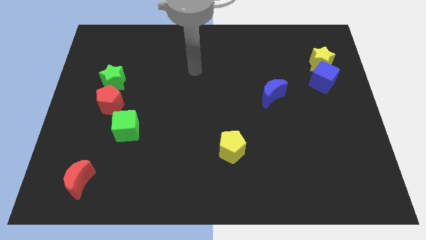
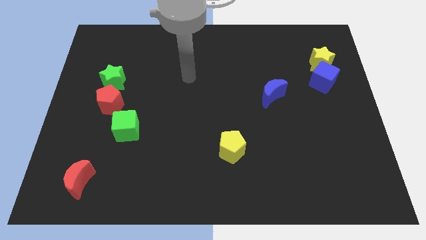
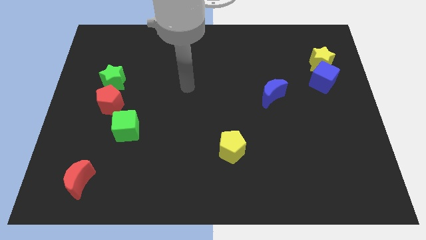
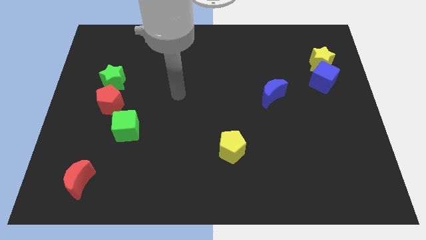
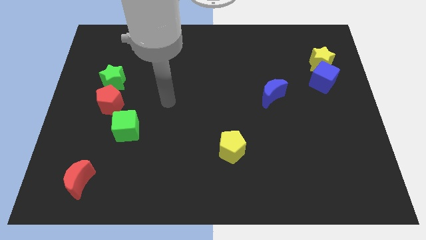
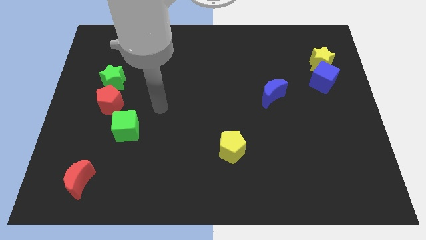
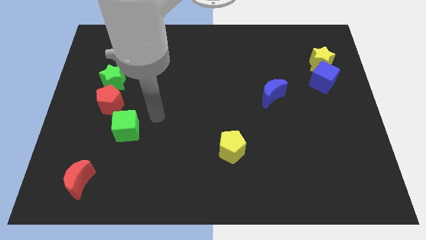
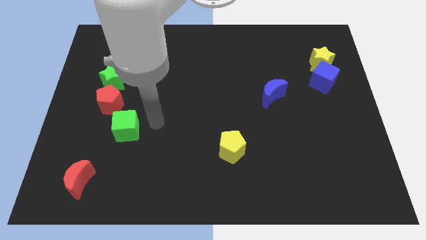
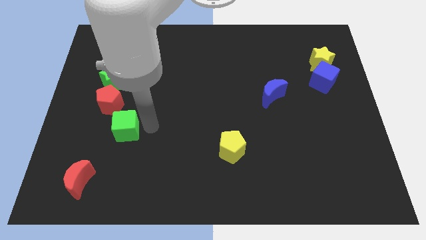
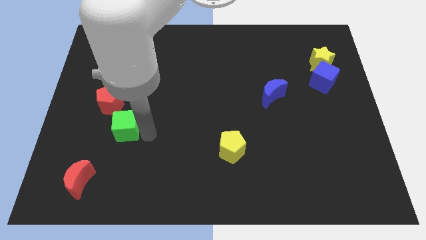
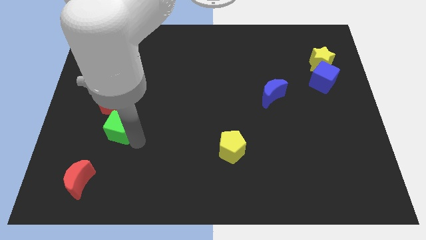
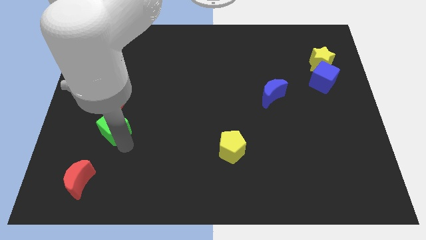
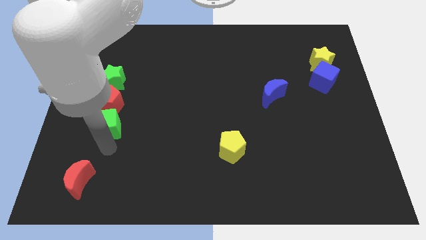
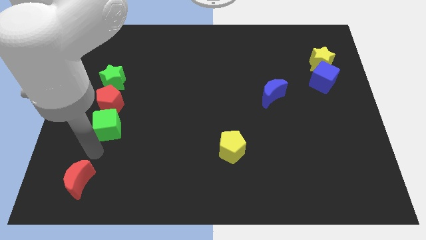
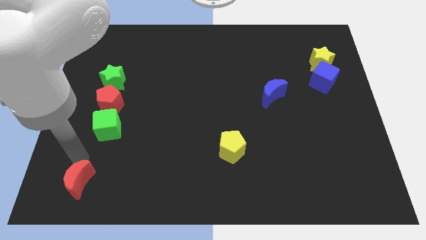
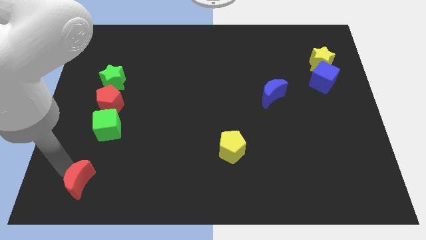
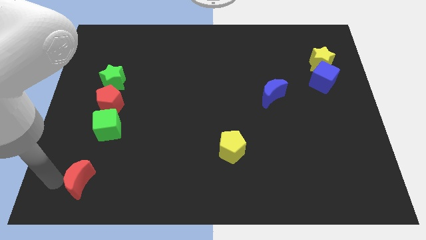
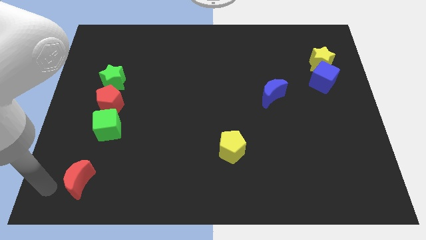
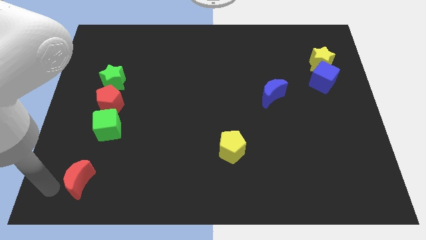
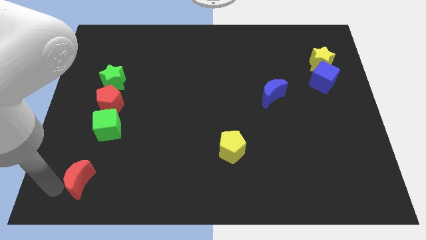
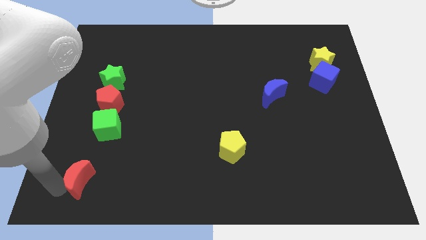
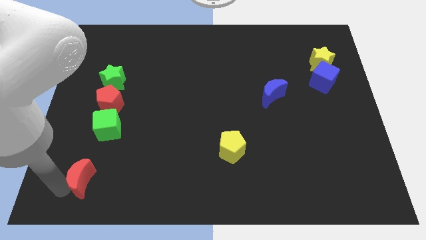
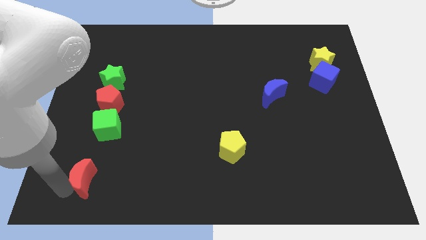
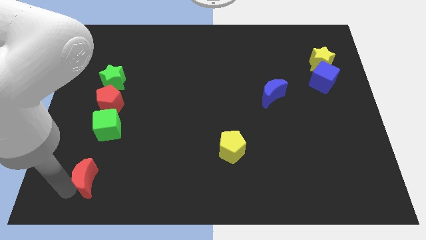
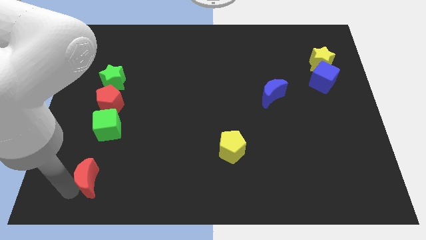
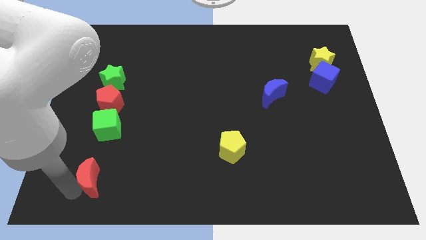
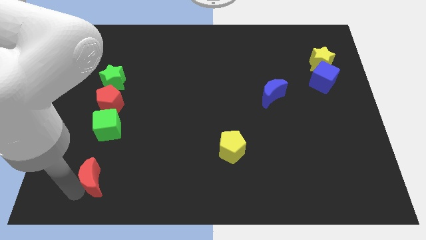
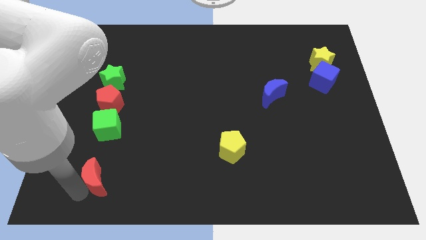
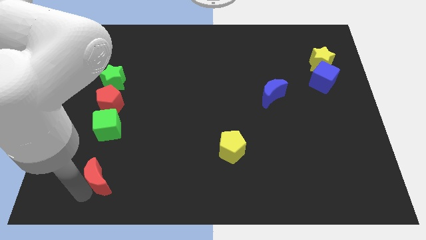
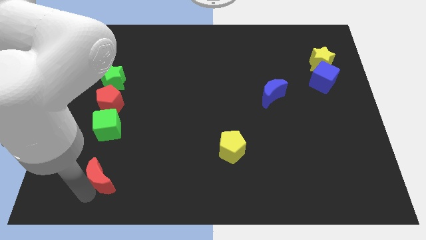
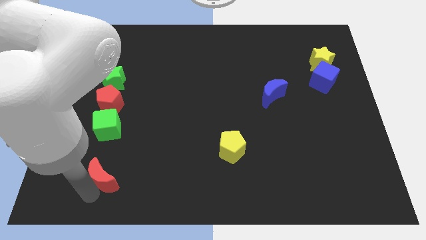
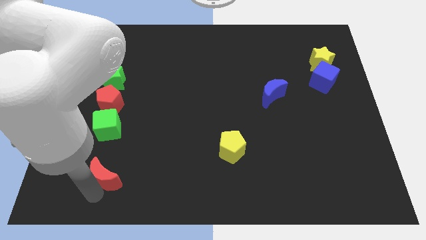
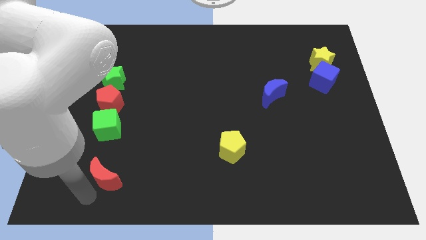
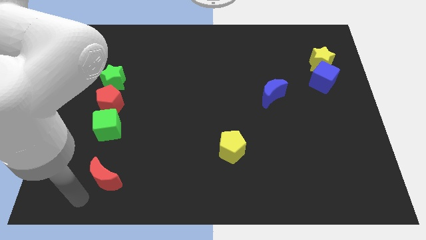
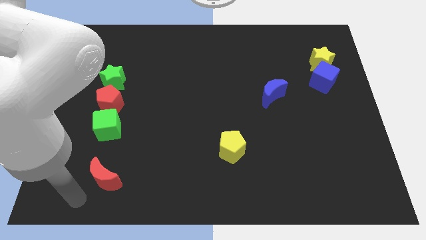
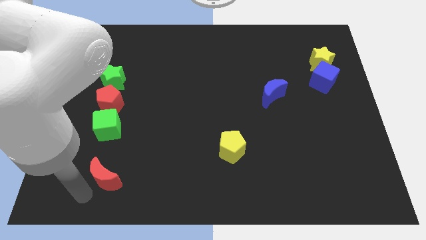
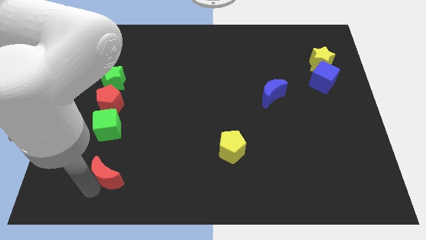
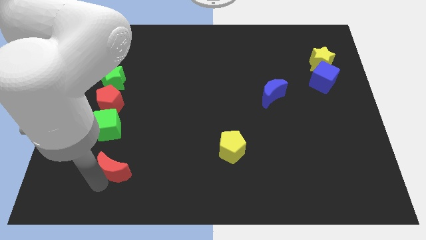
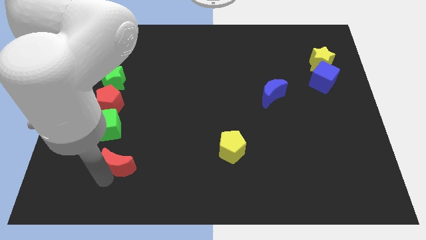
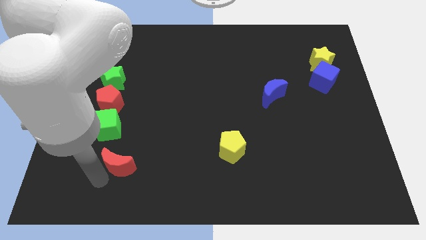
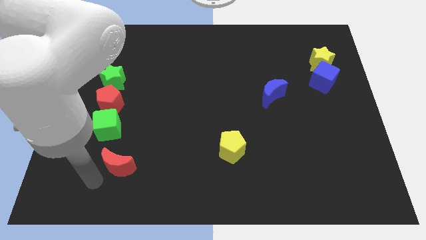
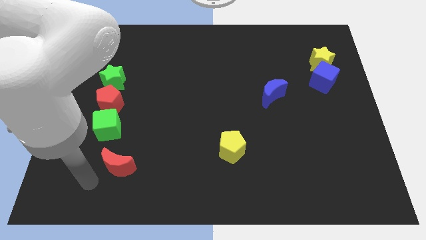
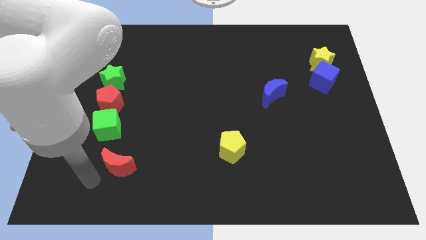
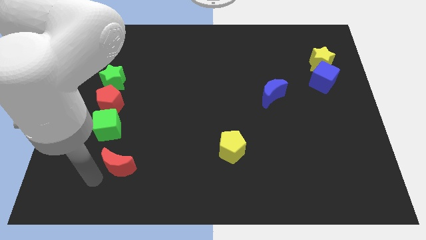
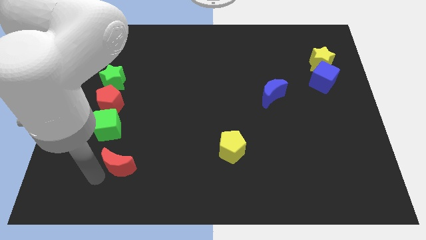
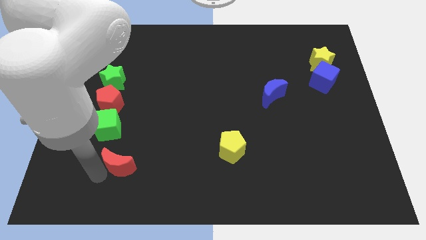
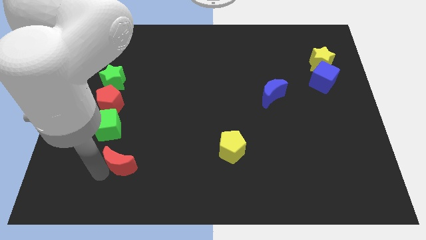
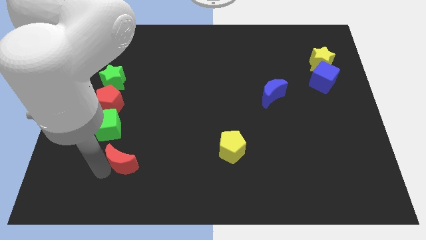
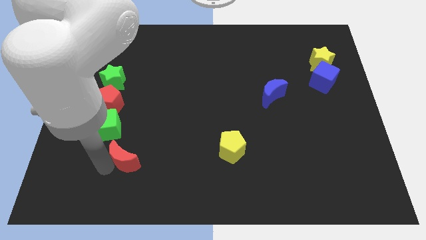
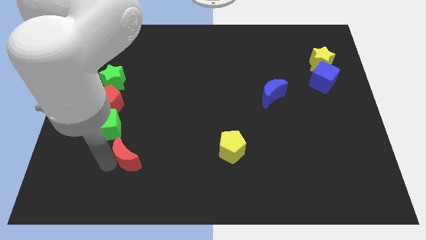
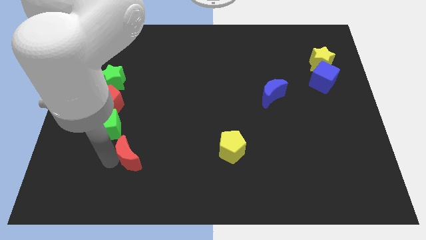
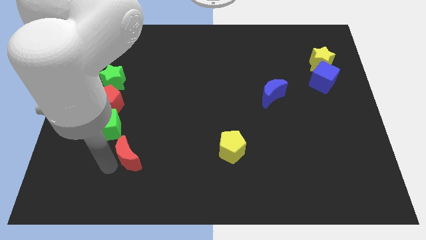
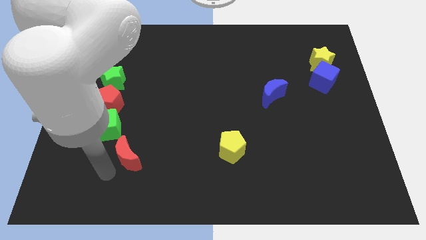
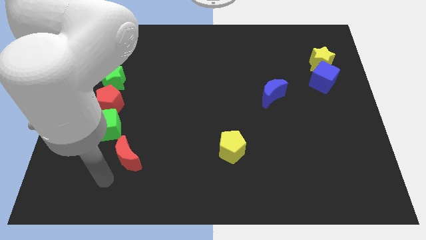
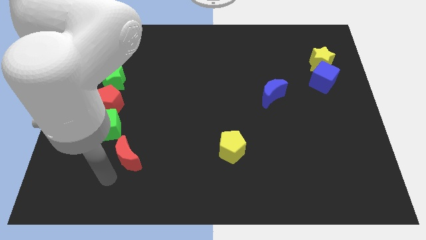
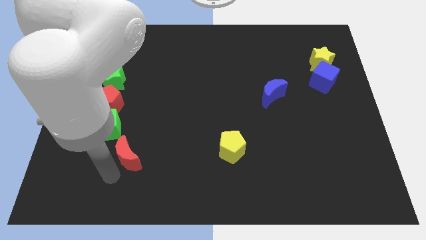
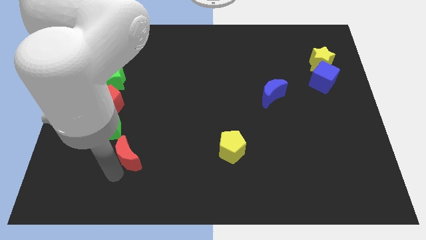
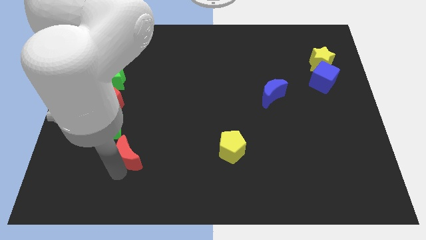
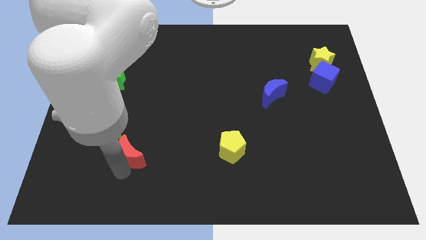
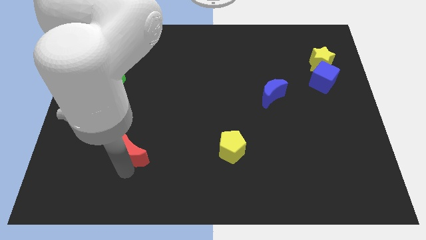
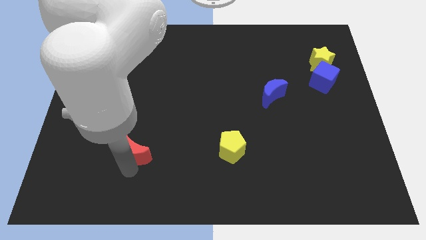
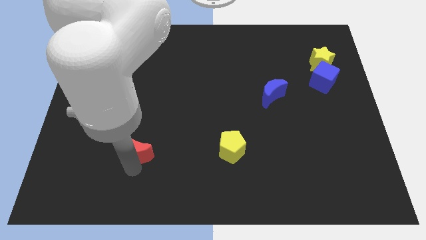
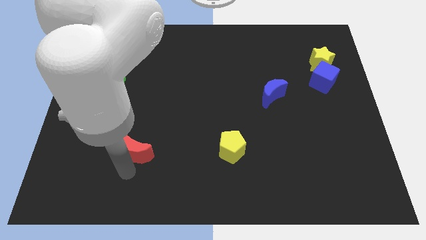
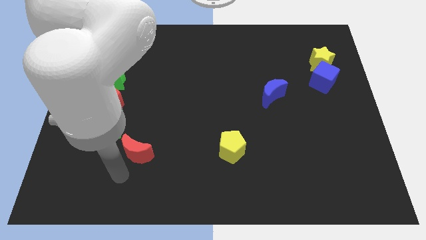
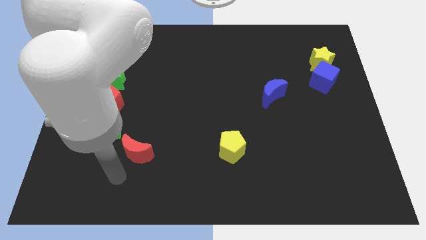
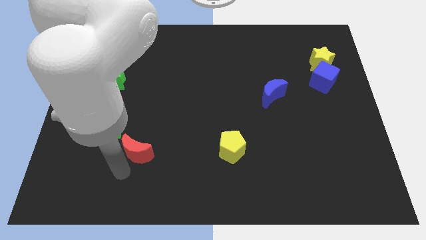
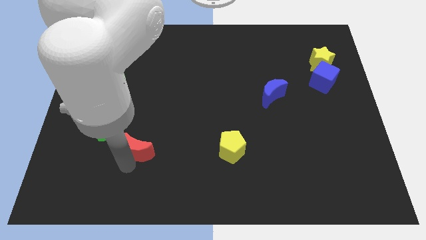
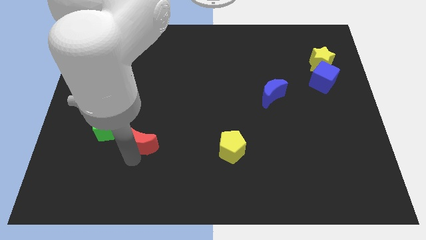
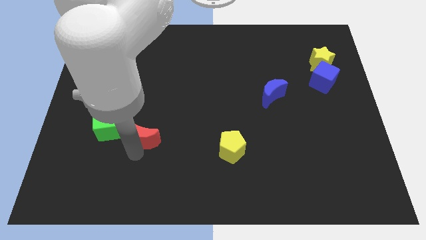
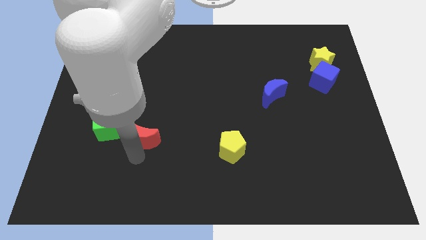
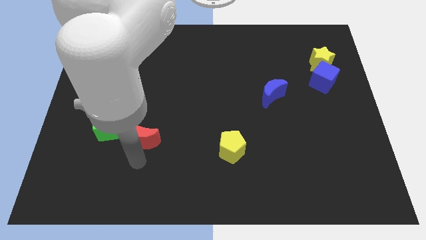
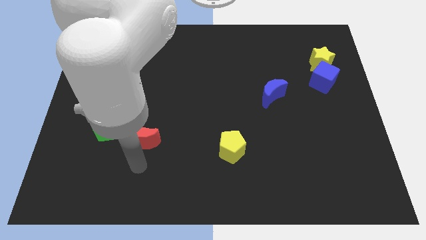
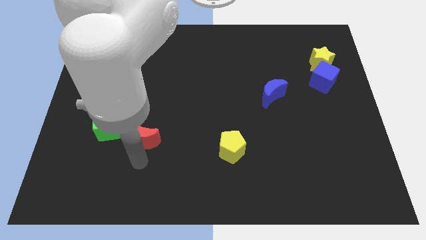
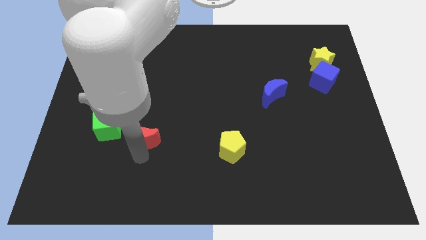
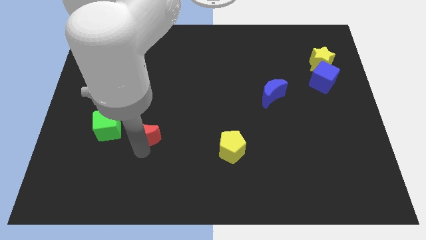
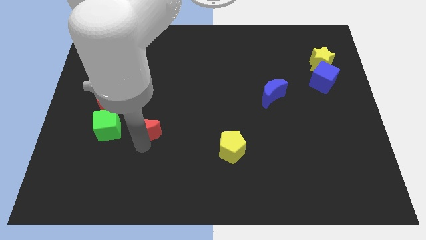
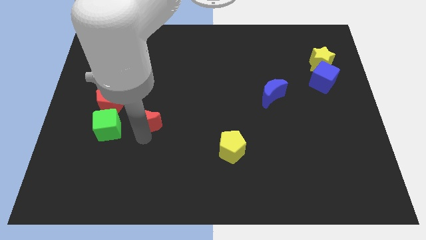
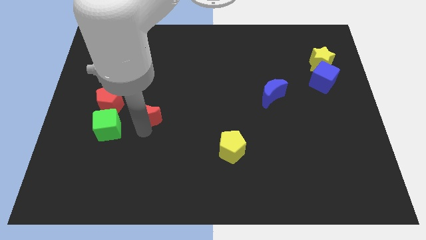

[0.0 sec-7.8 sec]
push the red moon right of the red pentagon
